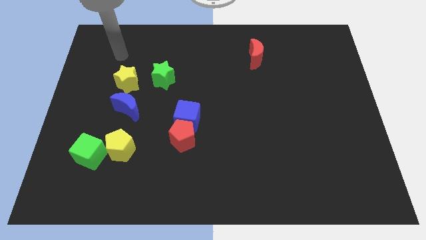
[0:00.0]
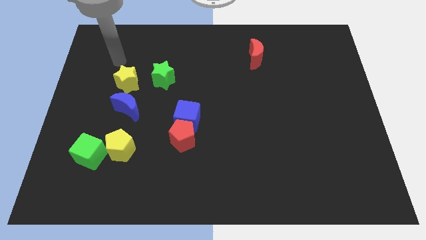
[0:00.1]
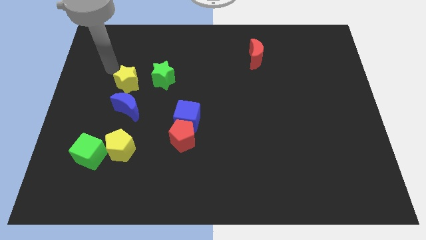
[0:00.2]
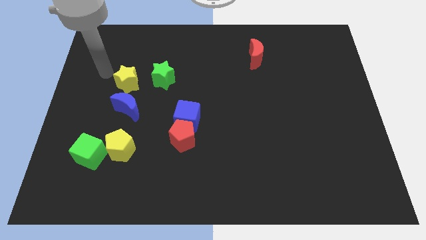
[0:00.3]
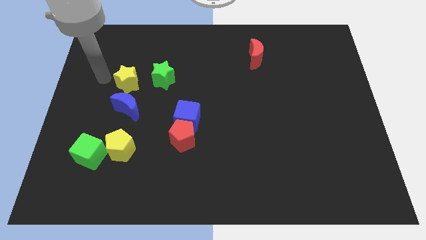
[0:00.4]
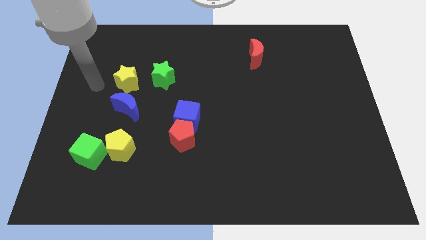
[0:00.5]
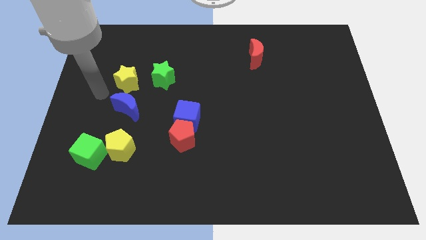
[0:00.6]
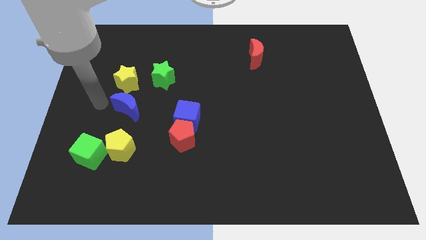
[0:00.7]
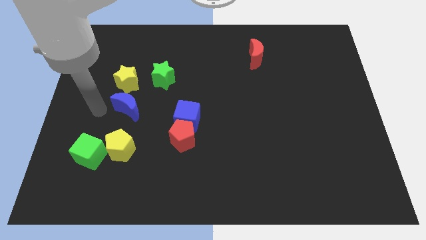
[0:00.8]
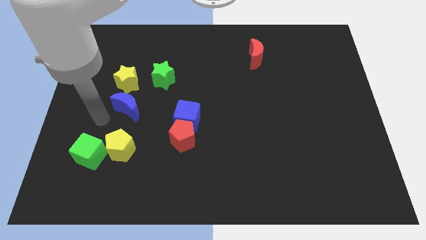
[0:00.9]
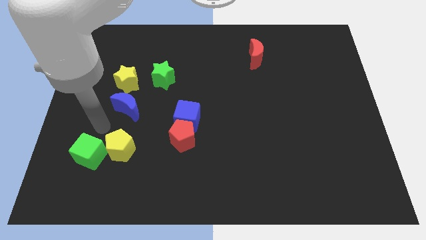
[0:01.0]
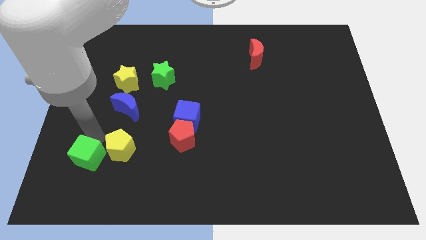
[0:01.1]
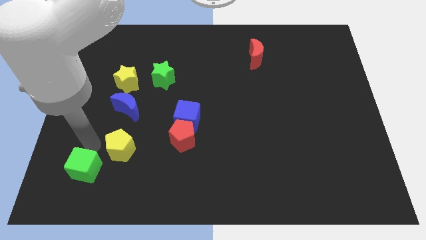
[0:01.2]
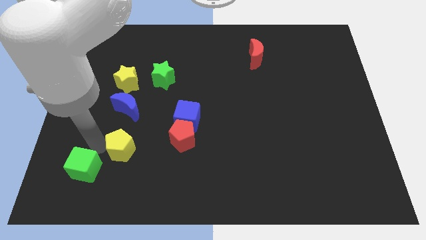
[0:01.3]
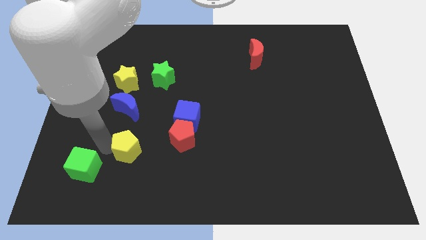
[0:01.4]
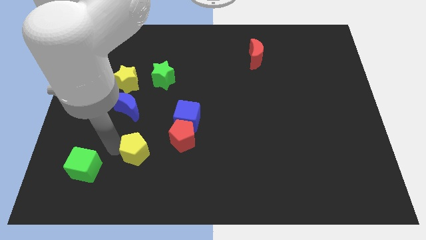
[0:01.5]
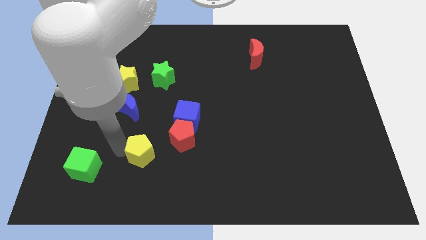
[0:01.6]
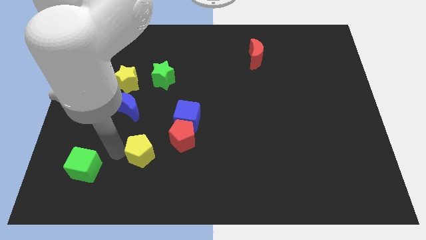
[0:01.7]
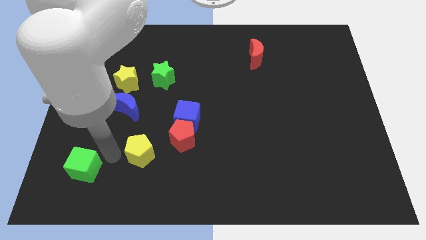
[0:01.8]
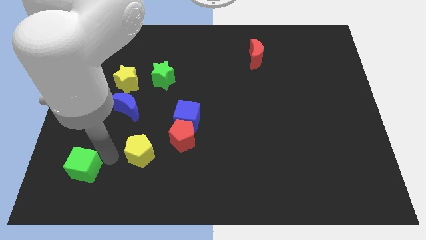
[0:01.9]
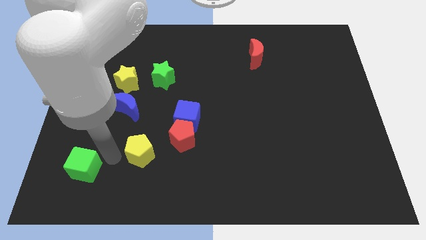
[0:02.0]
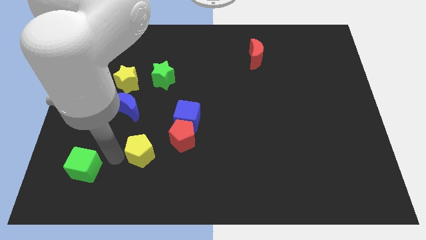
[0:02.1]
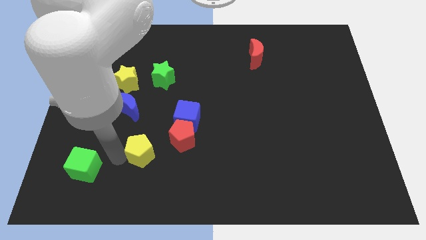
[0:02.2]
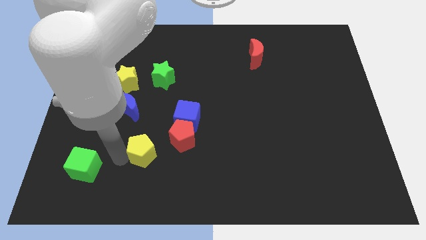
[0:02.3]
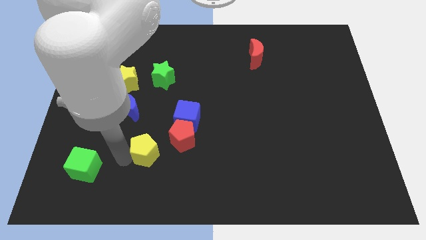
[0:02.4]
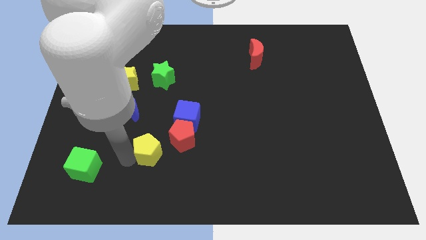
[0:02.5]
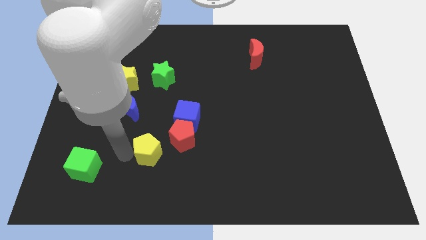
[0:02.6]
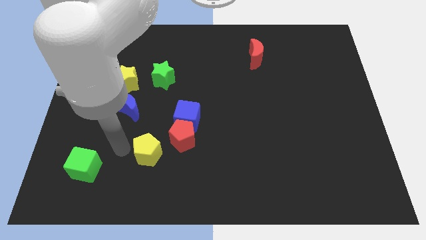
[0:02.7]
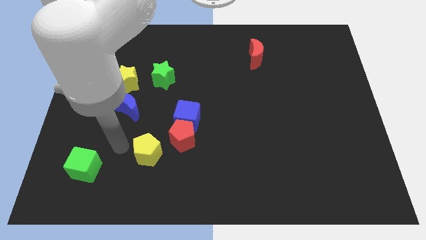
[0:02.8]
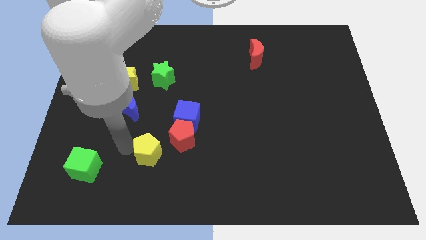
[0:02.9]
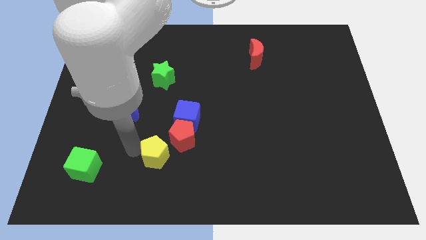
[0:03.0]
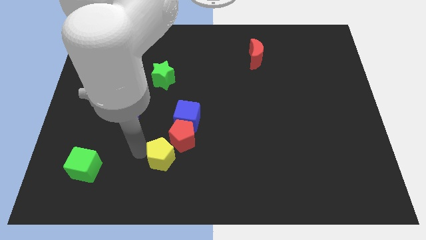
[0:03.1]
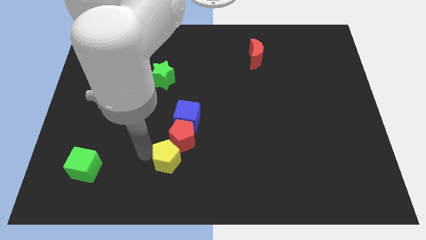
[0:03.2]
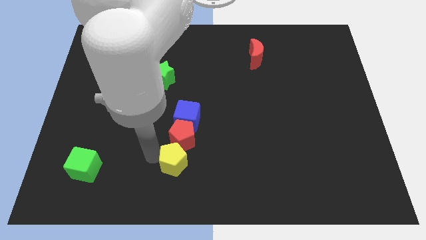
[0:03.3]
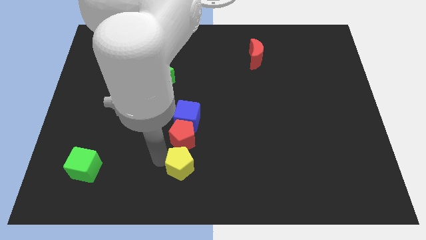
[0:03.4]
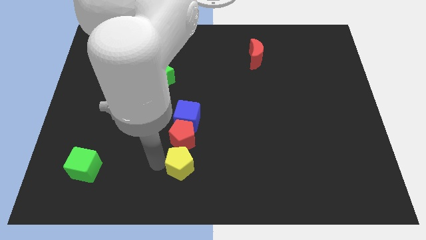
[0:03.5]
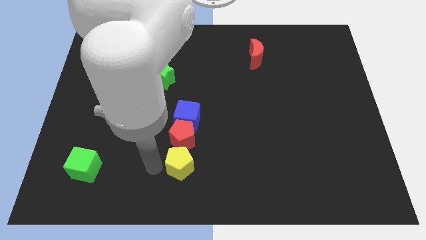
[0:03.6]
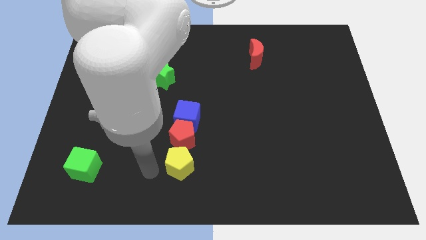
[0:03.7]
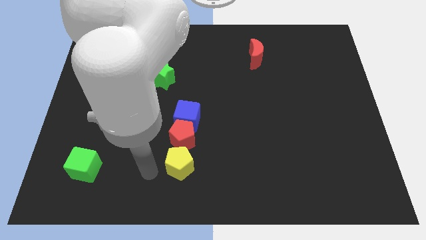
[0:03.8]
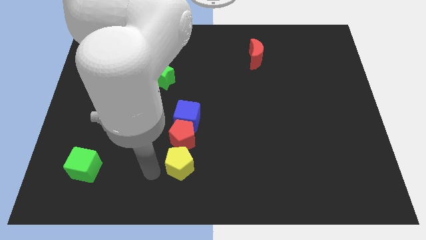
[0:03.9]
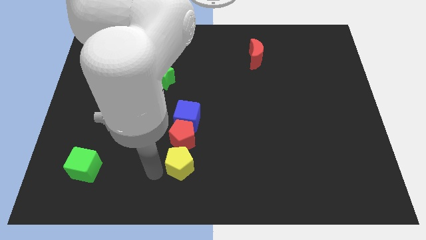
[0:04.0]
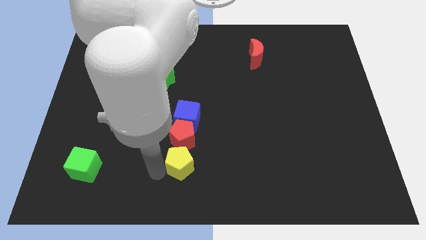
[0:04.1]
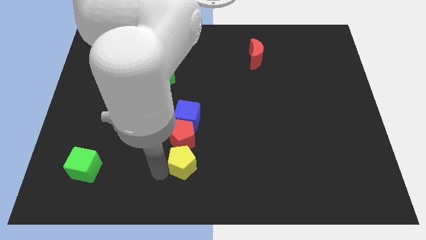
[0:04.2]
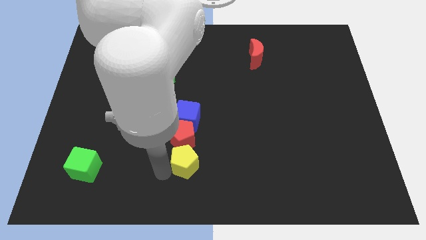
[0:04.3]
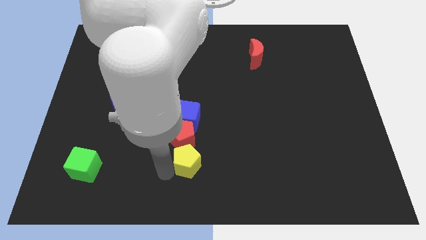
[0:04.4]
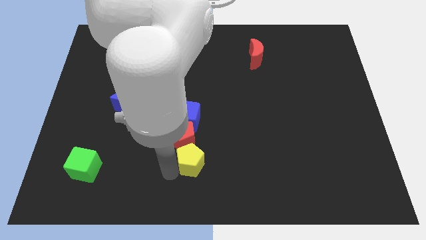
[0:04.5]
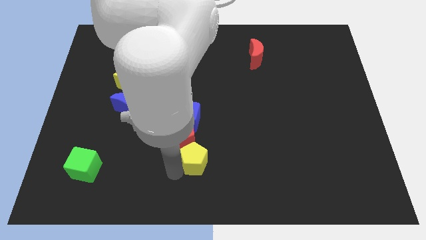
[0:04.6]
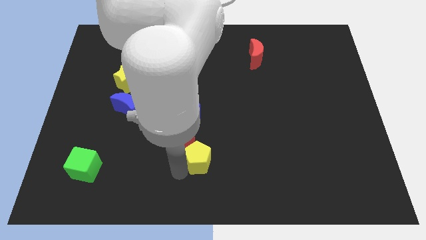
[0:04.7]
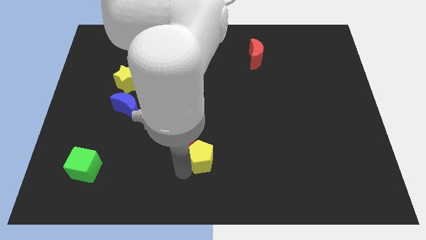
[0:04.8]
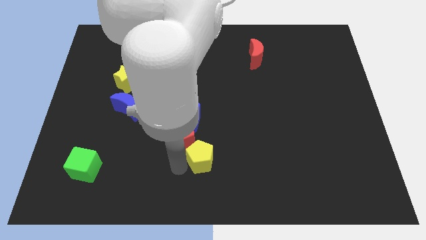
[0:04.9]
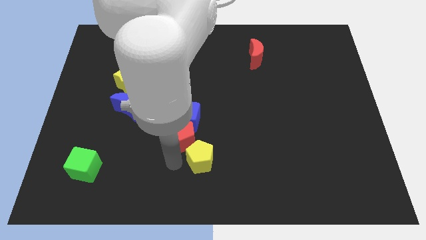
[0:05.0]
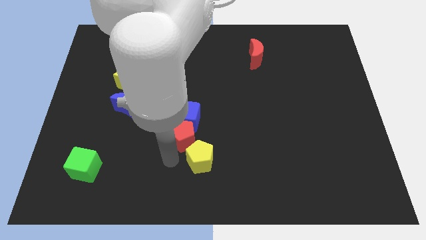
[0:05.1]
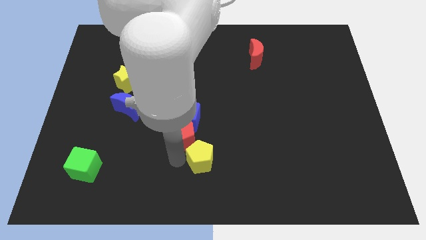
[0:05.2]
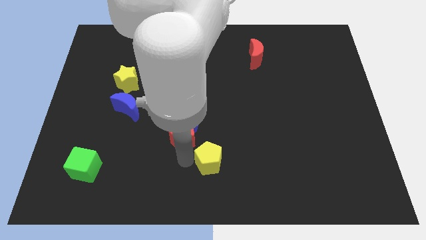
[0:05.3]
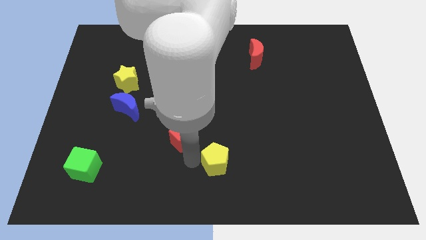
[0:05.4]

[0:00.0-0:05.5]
slide the yellow pentagon right

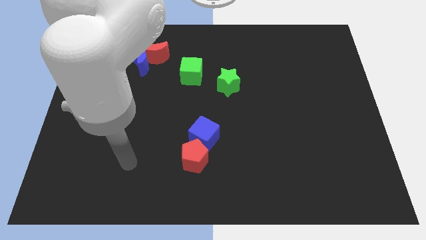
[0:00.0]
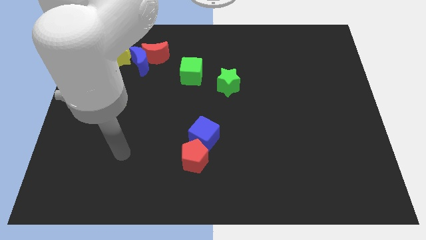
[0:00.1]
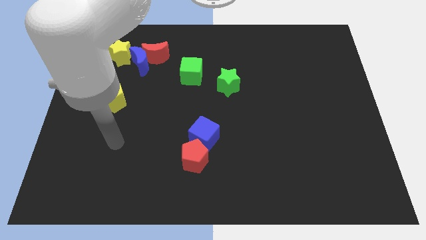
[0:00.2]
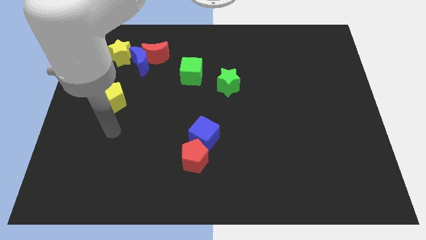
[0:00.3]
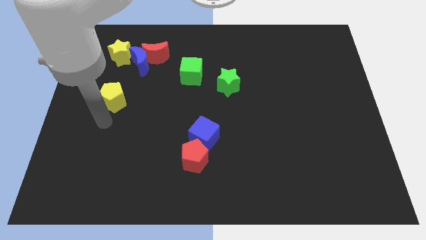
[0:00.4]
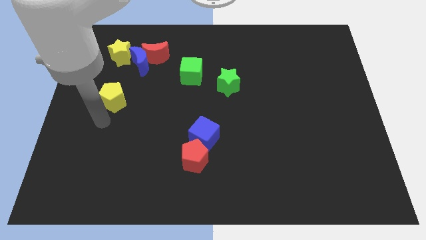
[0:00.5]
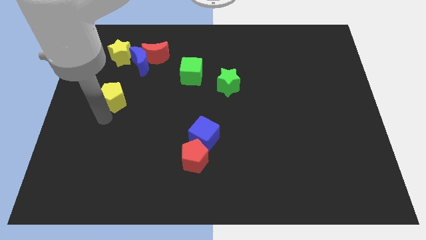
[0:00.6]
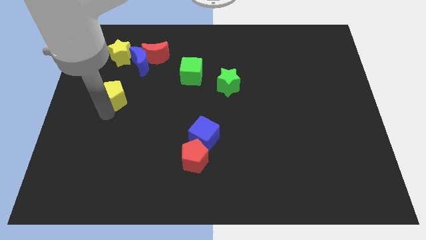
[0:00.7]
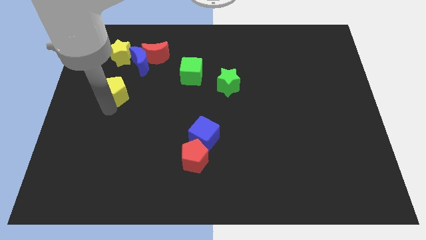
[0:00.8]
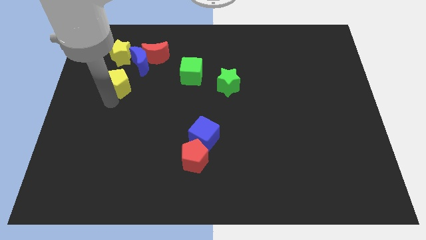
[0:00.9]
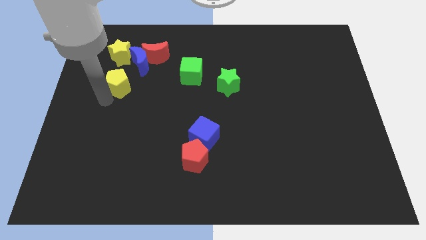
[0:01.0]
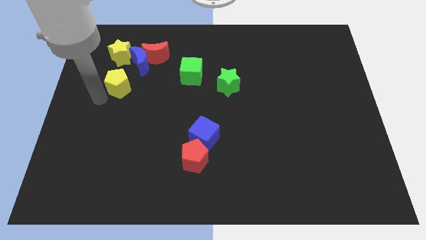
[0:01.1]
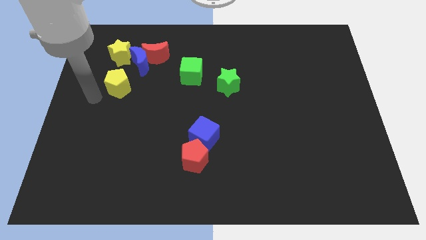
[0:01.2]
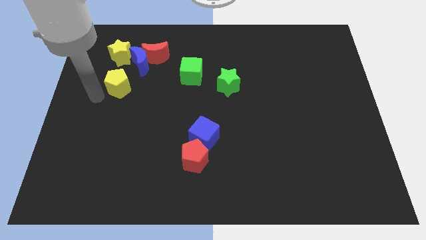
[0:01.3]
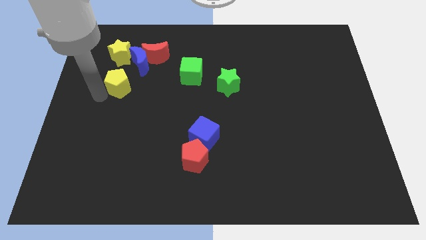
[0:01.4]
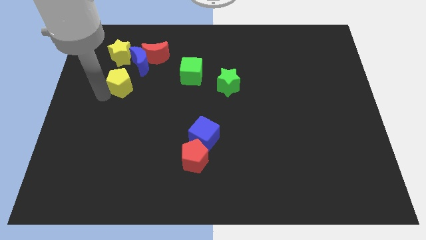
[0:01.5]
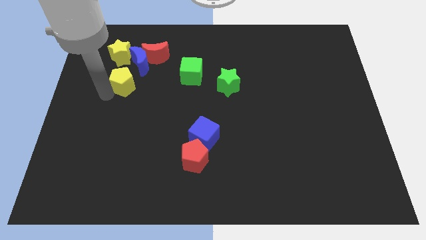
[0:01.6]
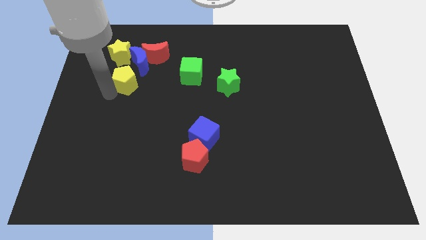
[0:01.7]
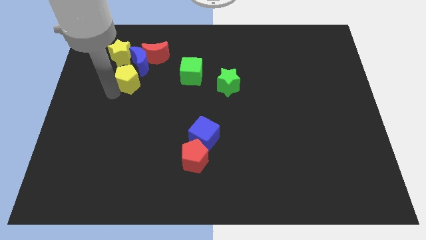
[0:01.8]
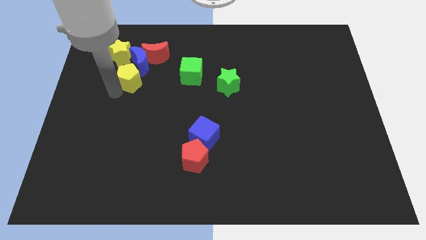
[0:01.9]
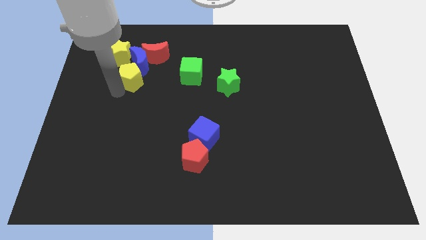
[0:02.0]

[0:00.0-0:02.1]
slide the yellow pentagon diagonally upwards and to the right slightly

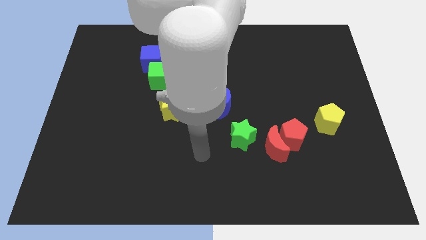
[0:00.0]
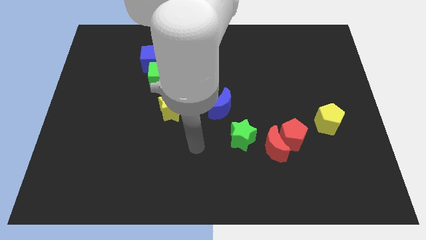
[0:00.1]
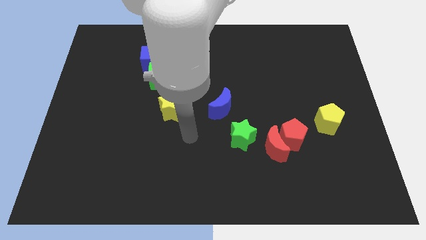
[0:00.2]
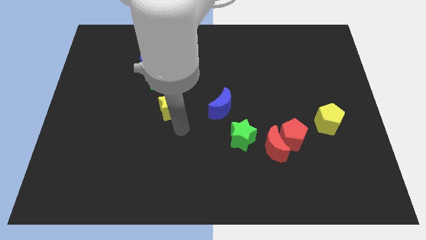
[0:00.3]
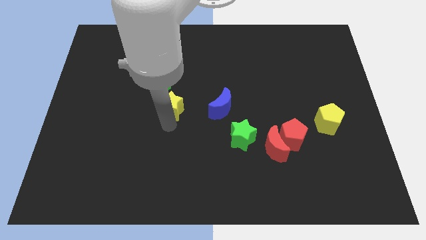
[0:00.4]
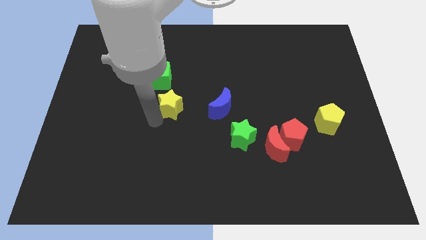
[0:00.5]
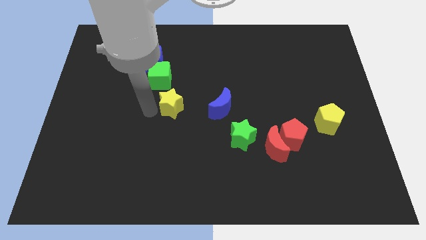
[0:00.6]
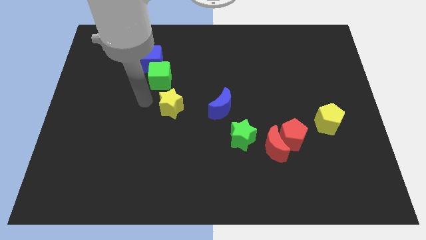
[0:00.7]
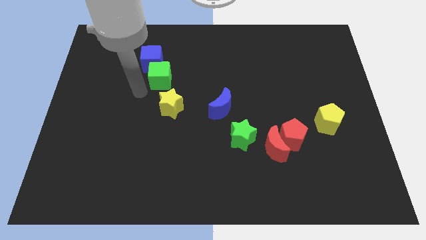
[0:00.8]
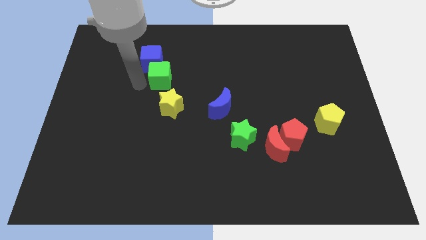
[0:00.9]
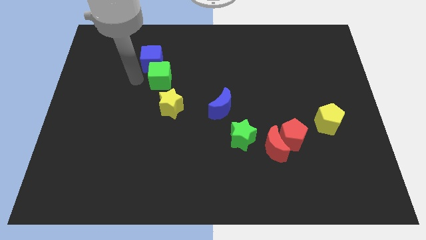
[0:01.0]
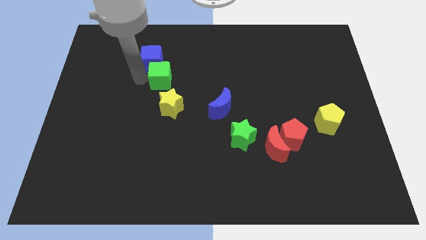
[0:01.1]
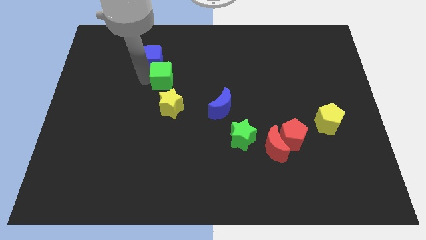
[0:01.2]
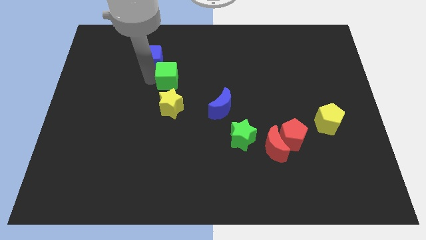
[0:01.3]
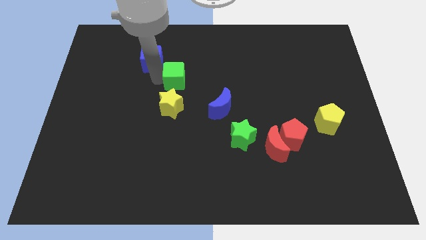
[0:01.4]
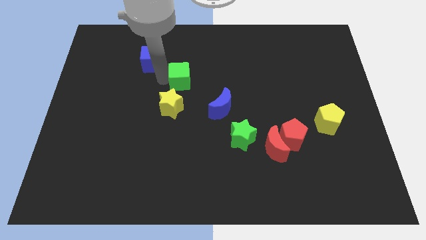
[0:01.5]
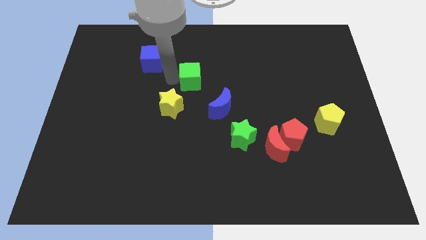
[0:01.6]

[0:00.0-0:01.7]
push the green cube right slightly
